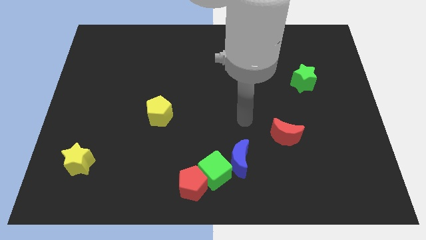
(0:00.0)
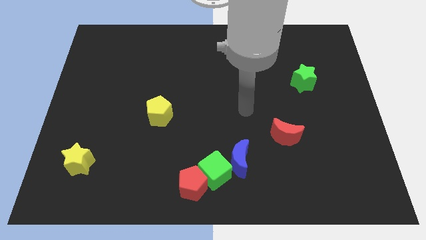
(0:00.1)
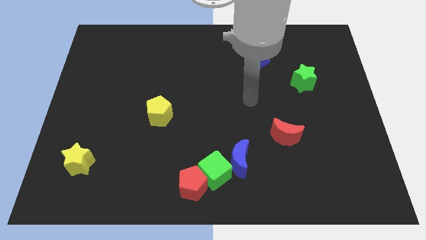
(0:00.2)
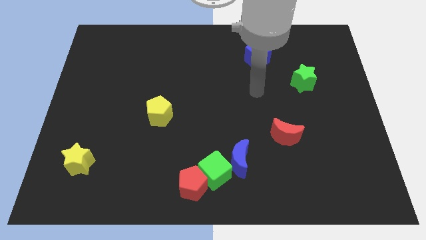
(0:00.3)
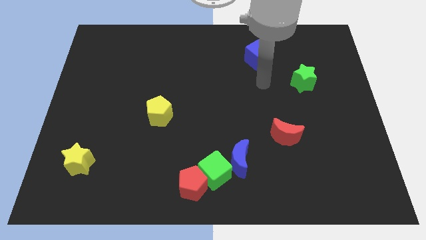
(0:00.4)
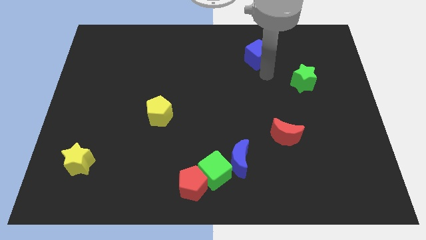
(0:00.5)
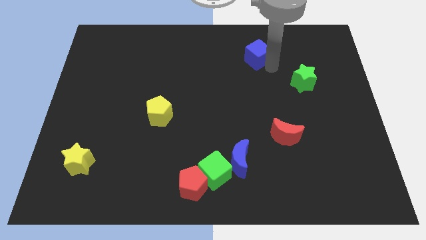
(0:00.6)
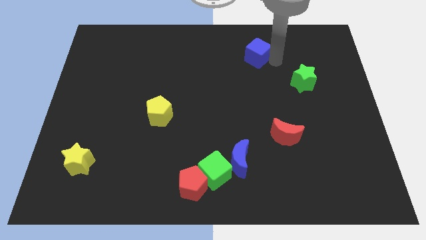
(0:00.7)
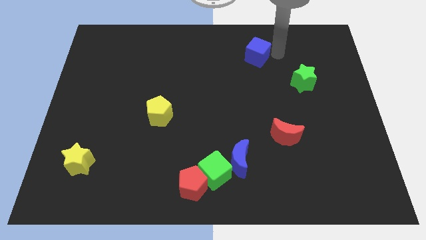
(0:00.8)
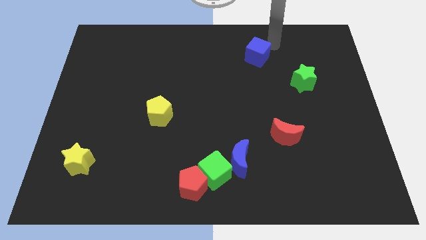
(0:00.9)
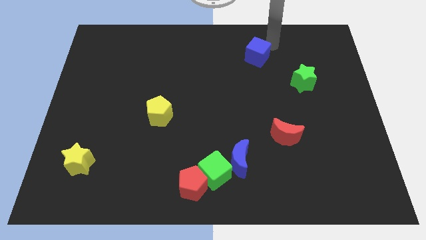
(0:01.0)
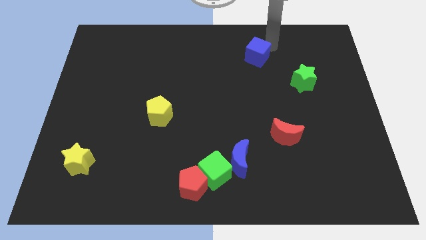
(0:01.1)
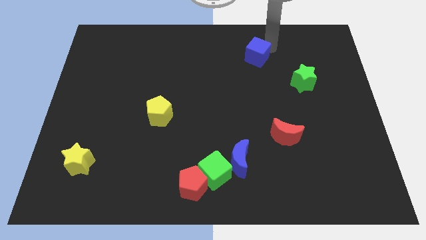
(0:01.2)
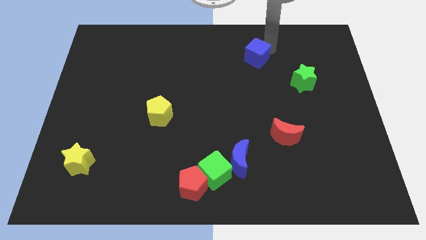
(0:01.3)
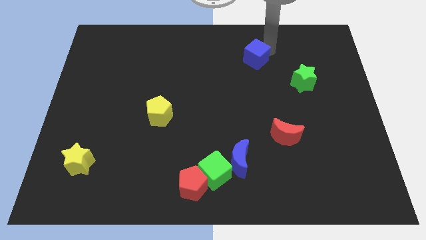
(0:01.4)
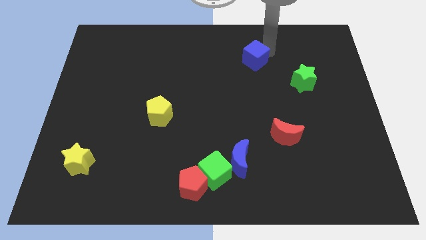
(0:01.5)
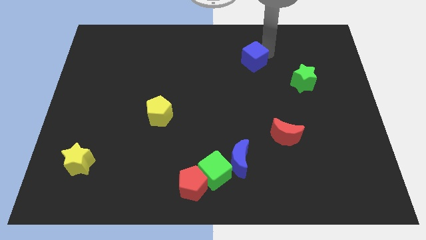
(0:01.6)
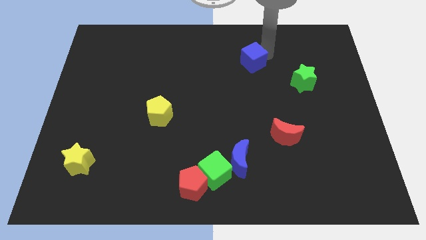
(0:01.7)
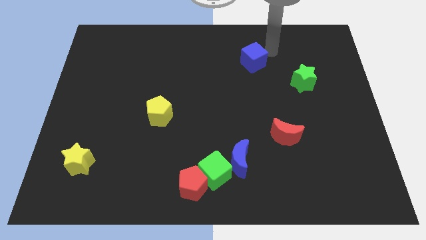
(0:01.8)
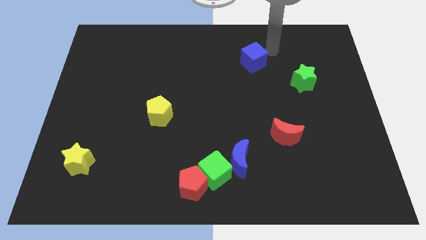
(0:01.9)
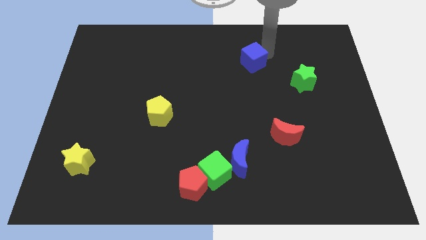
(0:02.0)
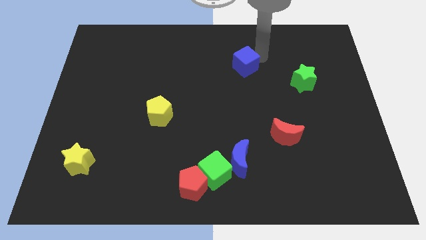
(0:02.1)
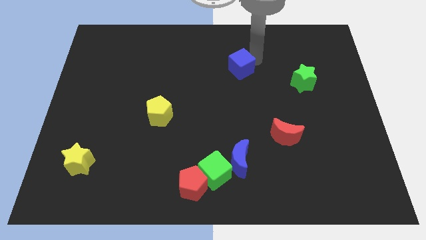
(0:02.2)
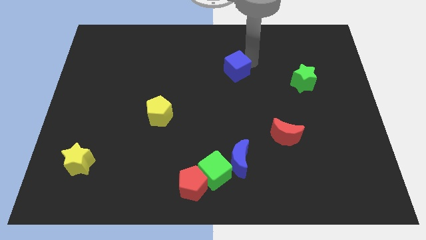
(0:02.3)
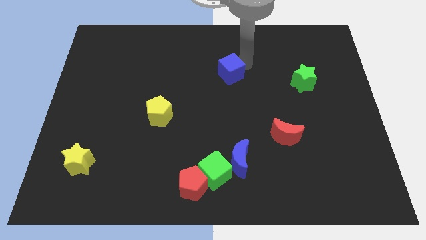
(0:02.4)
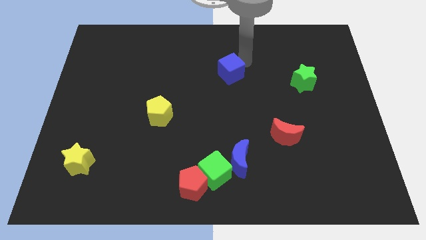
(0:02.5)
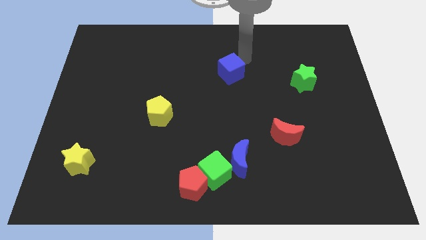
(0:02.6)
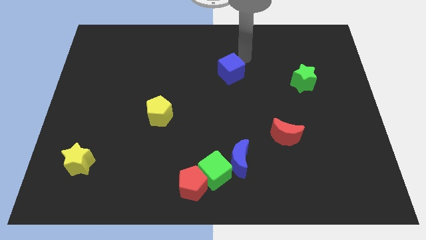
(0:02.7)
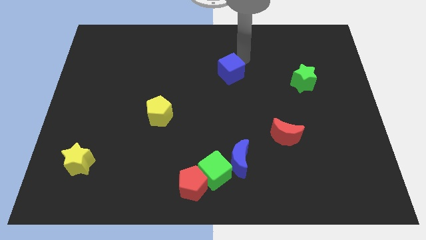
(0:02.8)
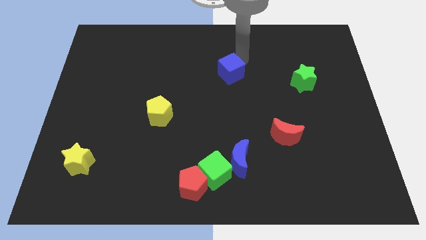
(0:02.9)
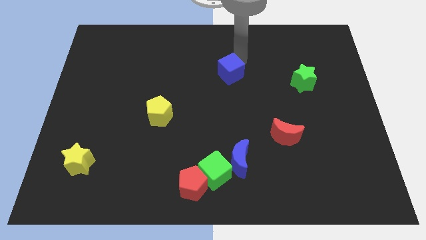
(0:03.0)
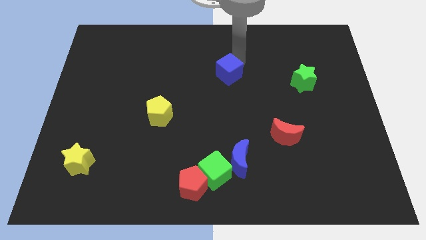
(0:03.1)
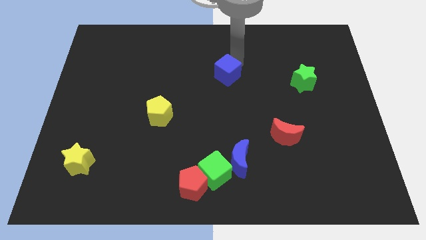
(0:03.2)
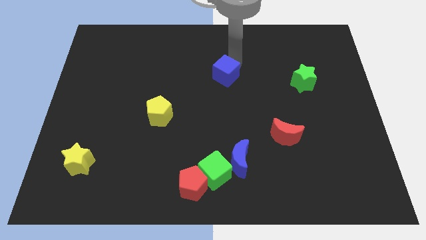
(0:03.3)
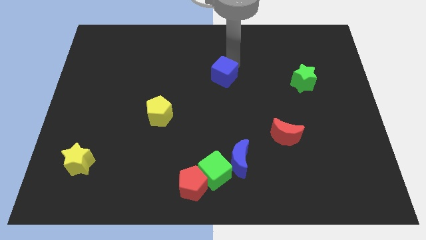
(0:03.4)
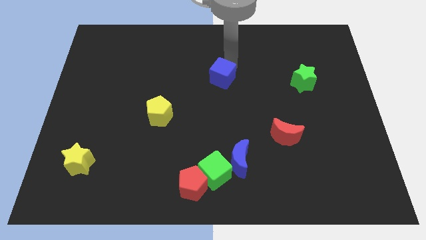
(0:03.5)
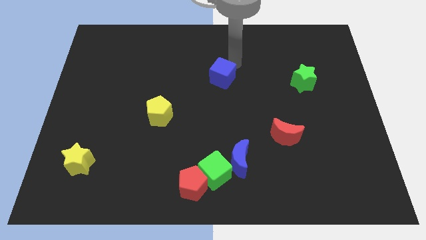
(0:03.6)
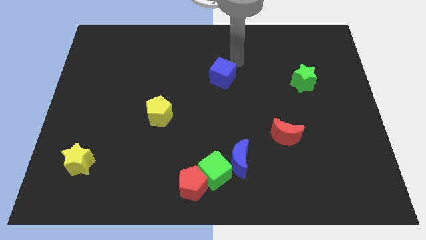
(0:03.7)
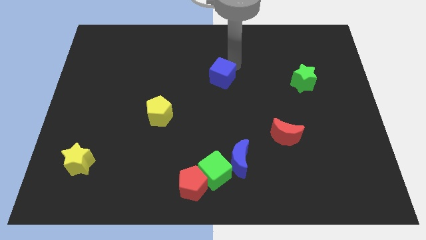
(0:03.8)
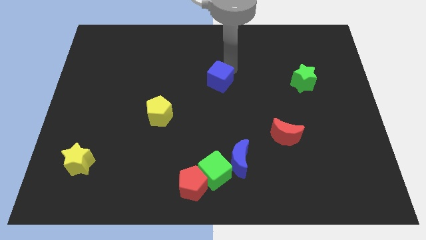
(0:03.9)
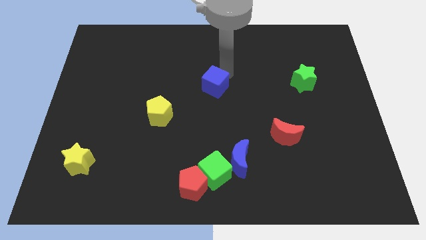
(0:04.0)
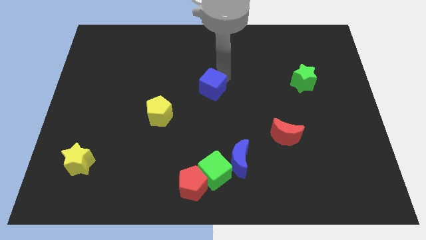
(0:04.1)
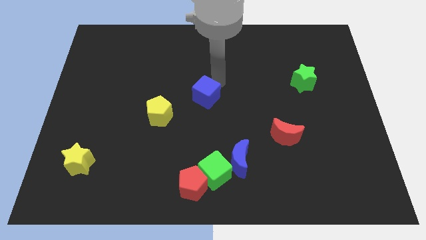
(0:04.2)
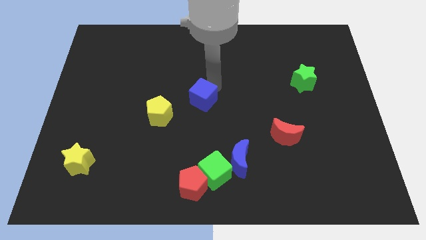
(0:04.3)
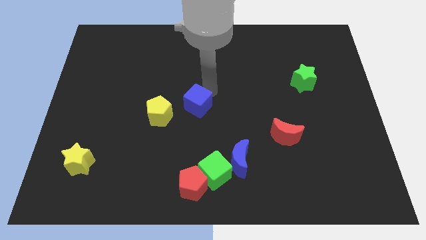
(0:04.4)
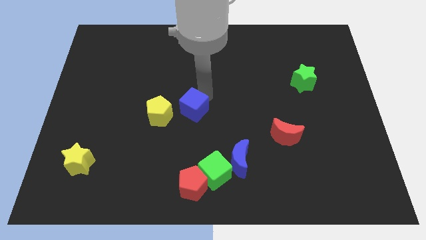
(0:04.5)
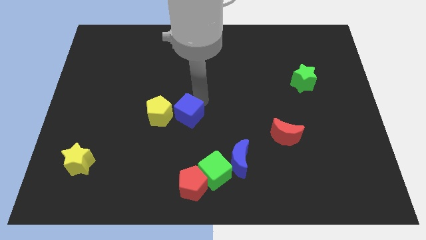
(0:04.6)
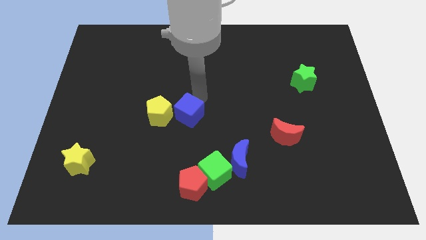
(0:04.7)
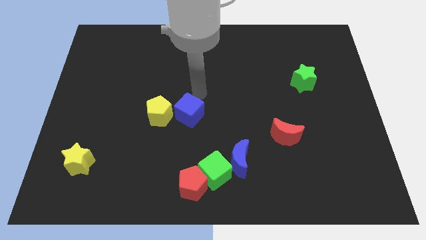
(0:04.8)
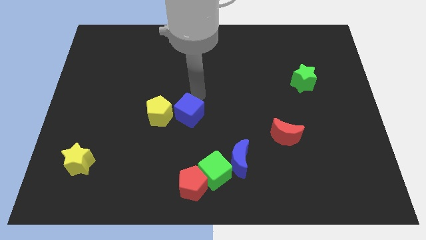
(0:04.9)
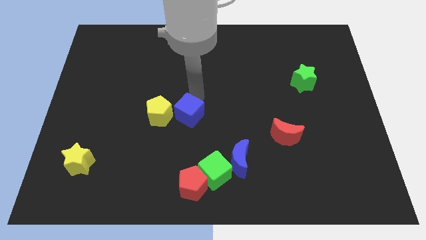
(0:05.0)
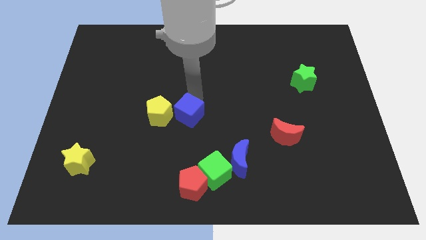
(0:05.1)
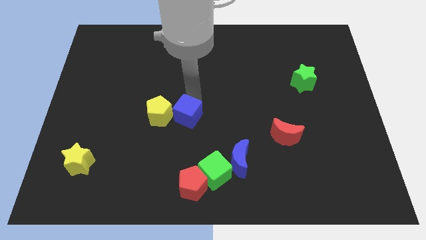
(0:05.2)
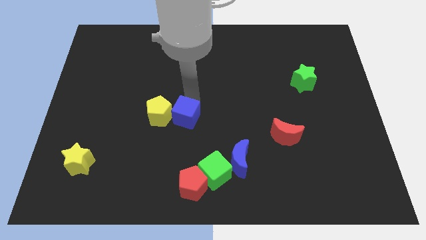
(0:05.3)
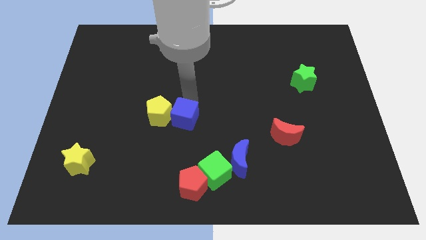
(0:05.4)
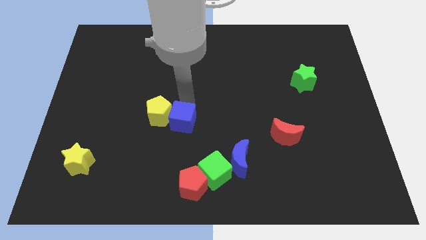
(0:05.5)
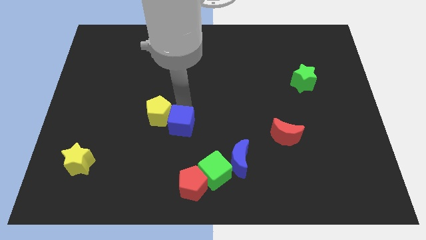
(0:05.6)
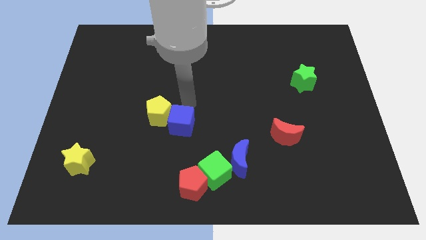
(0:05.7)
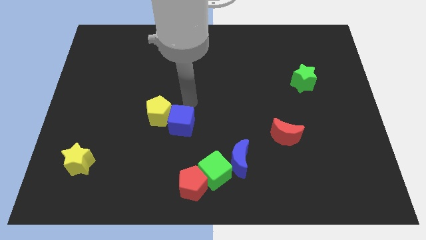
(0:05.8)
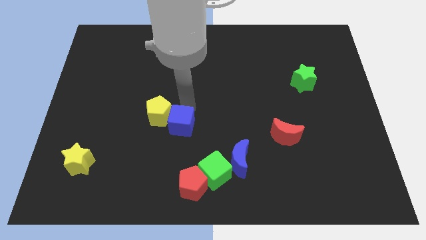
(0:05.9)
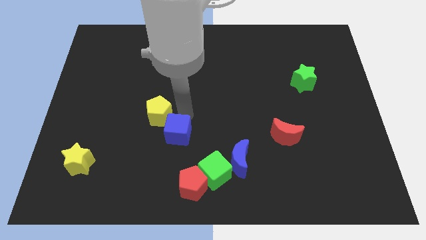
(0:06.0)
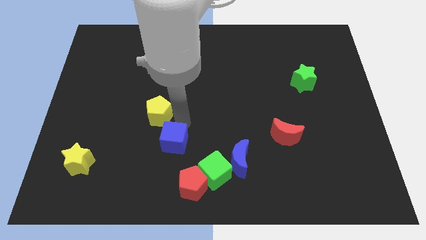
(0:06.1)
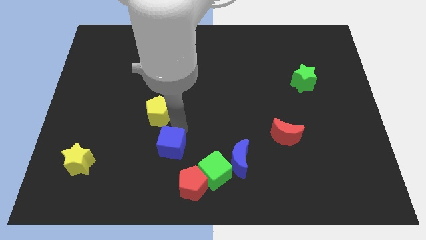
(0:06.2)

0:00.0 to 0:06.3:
push the blue cube to the top left side of the red pentagon

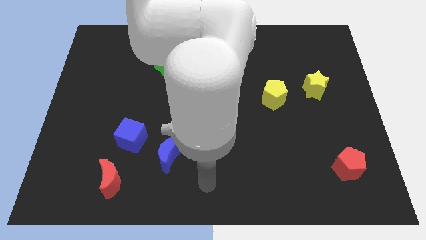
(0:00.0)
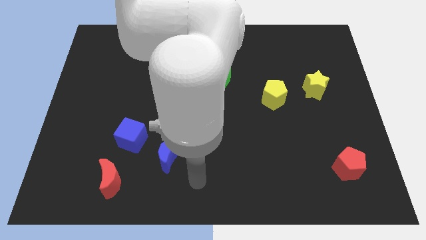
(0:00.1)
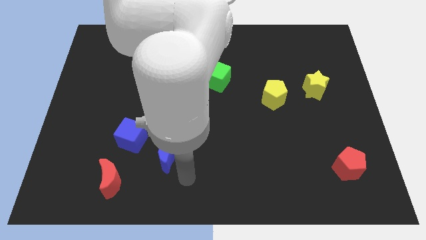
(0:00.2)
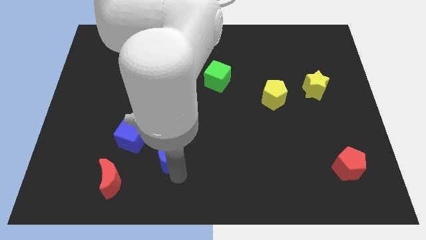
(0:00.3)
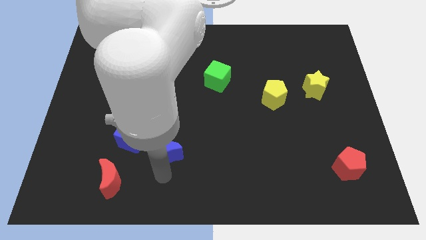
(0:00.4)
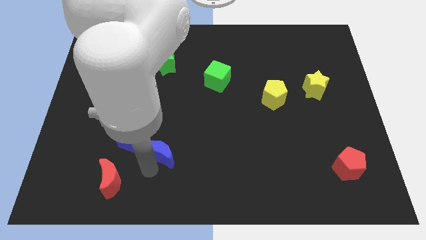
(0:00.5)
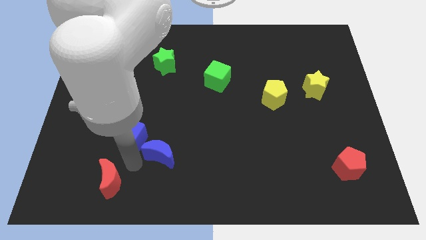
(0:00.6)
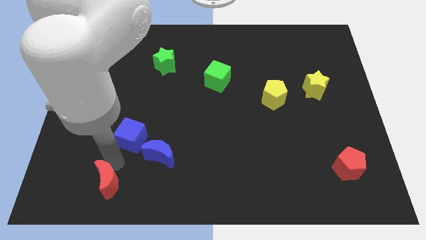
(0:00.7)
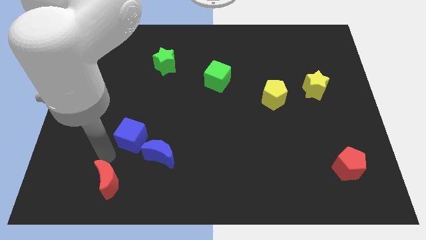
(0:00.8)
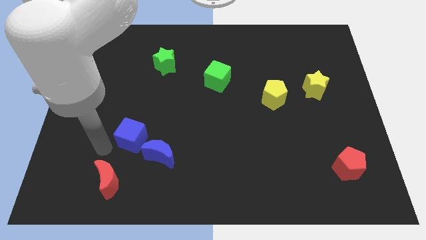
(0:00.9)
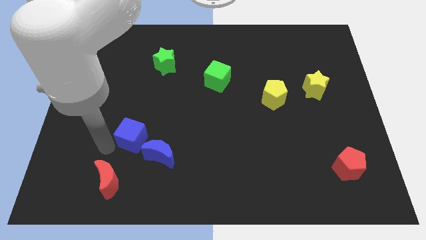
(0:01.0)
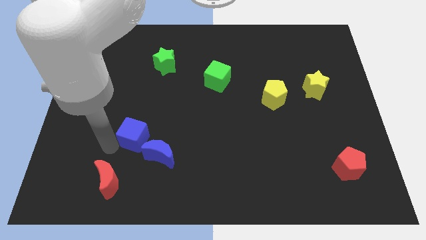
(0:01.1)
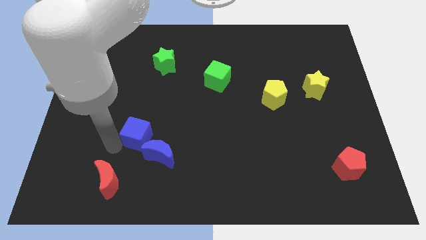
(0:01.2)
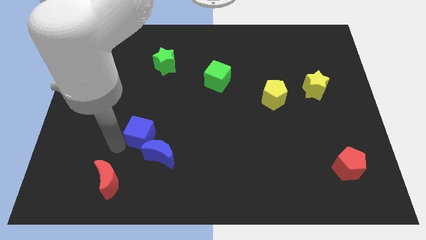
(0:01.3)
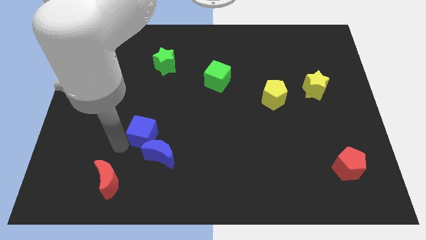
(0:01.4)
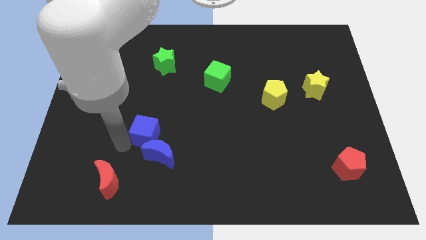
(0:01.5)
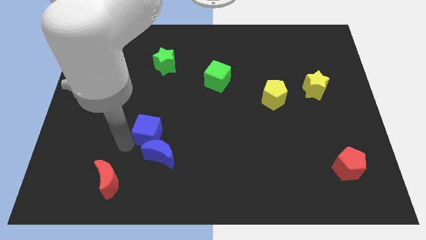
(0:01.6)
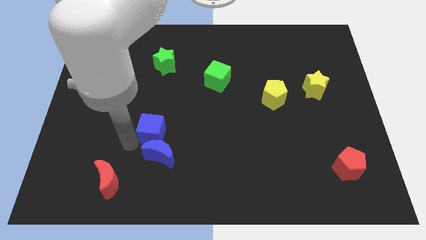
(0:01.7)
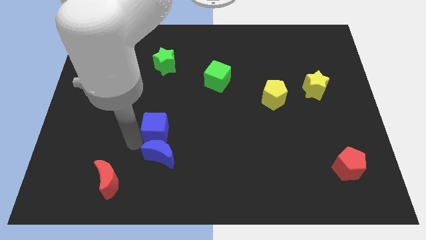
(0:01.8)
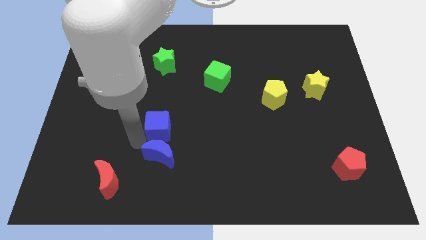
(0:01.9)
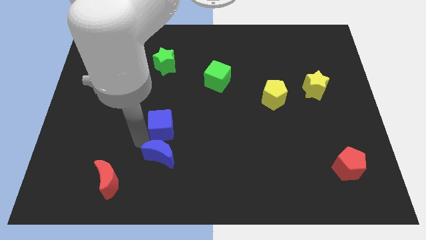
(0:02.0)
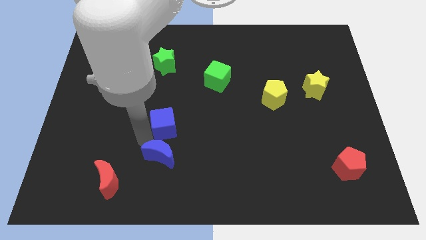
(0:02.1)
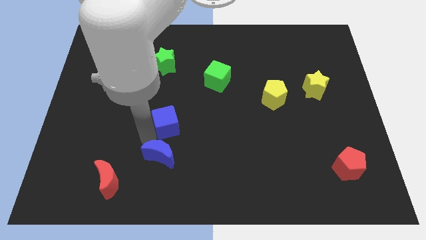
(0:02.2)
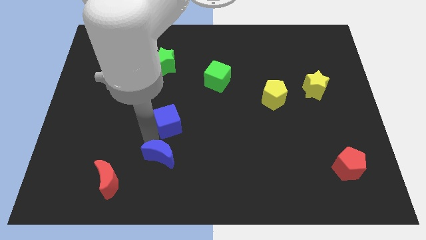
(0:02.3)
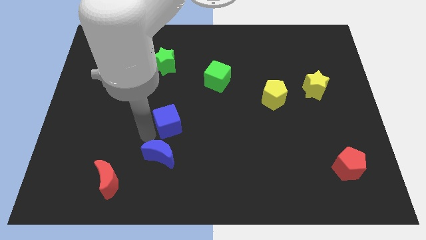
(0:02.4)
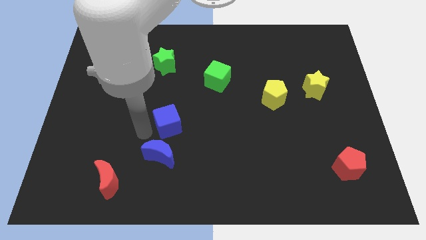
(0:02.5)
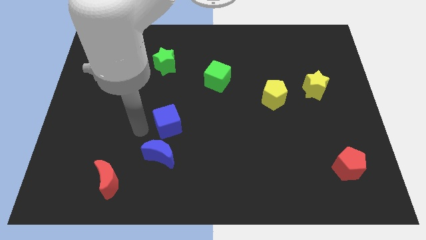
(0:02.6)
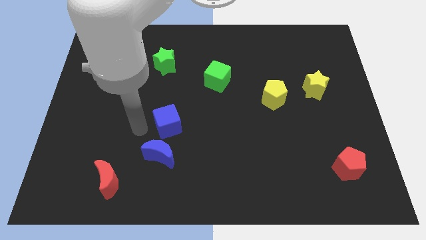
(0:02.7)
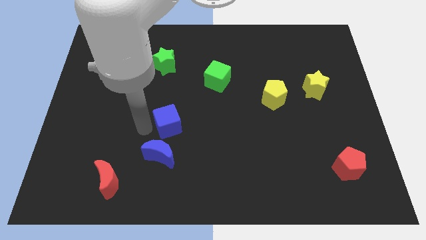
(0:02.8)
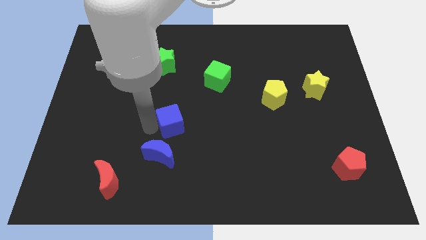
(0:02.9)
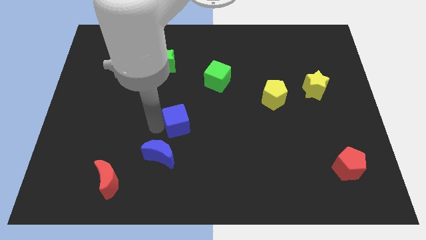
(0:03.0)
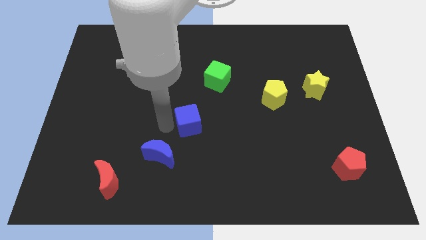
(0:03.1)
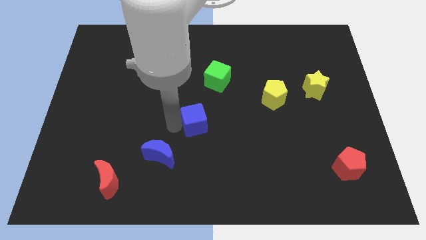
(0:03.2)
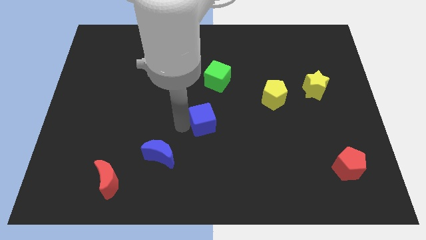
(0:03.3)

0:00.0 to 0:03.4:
slide the blue cube to the bottom of the green cube
